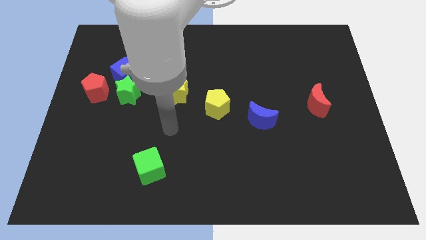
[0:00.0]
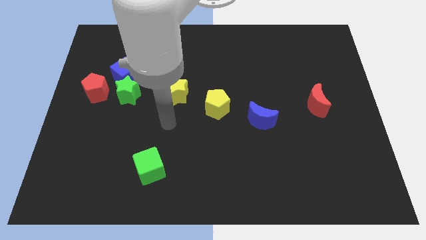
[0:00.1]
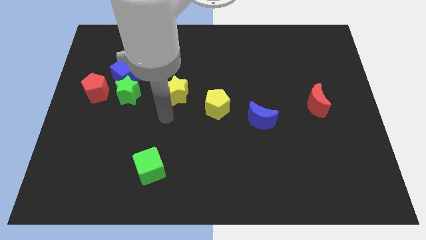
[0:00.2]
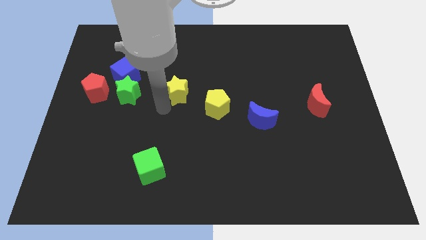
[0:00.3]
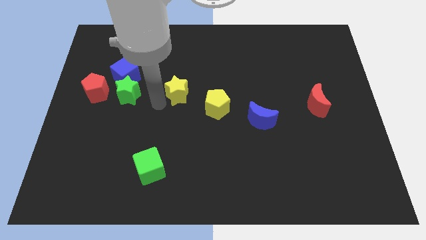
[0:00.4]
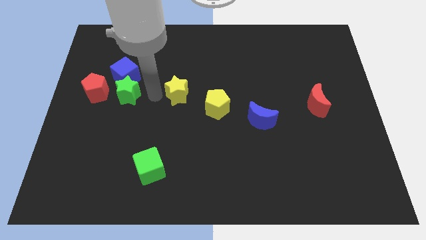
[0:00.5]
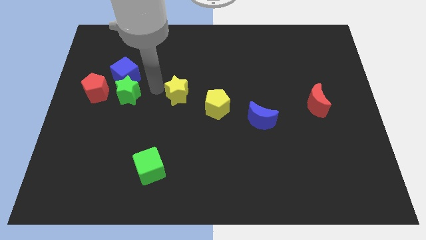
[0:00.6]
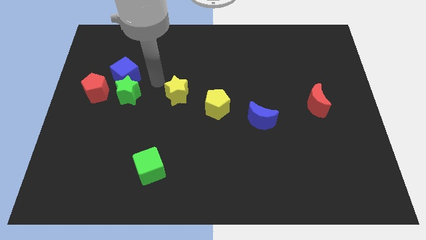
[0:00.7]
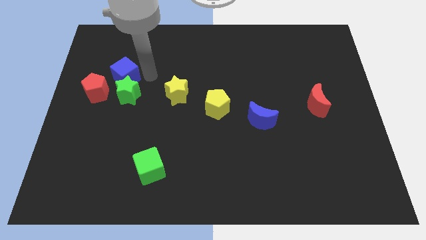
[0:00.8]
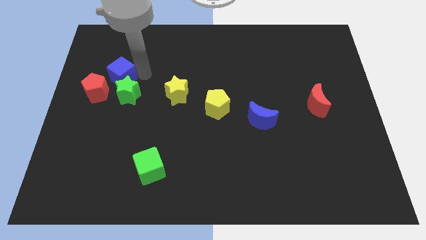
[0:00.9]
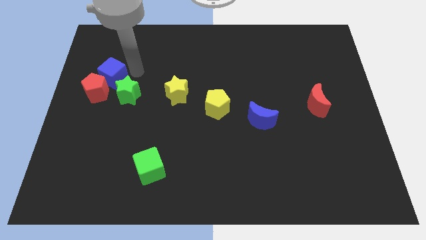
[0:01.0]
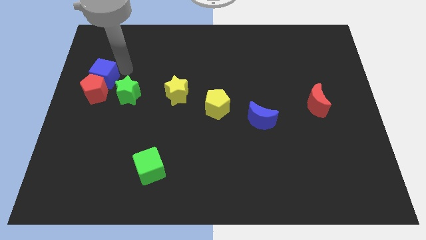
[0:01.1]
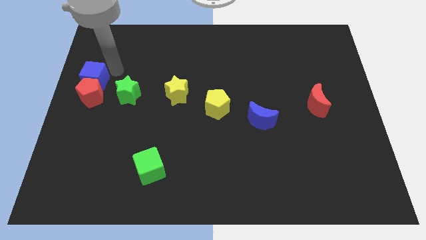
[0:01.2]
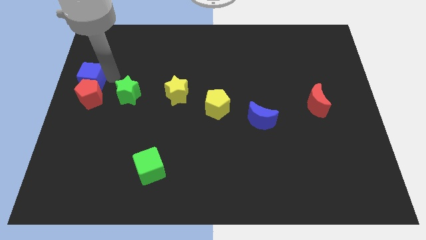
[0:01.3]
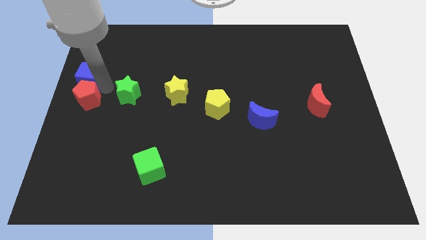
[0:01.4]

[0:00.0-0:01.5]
pull the green star apart from the blue cube and red pentagon

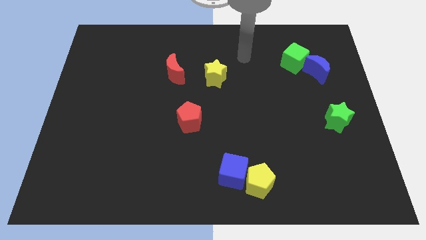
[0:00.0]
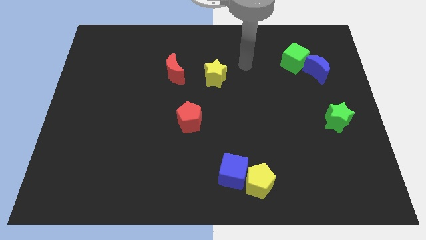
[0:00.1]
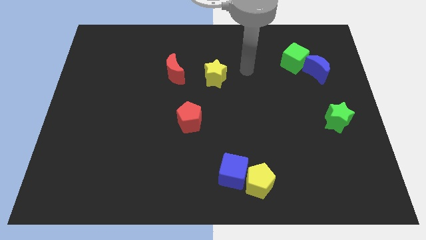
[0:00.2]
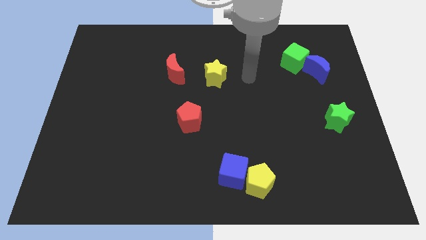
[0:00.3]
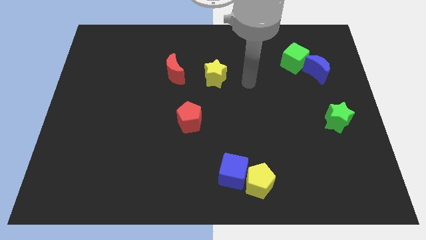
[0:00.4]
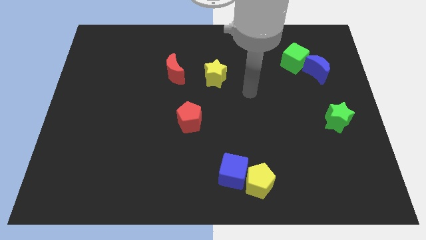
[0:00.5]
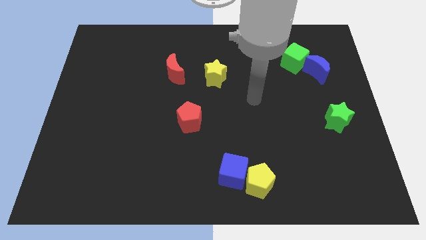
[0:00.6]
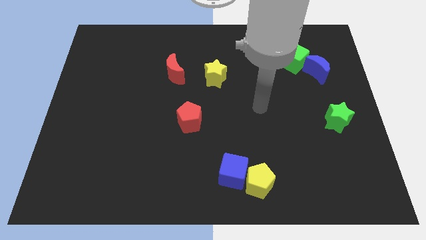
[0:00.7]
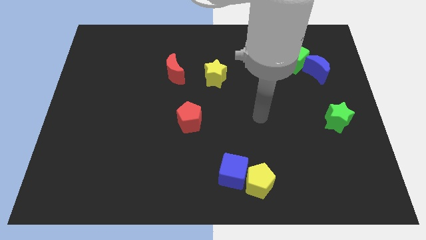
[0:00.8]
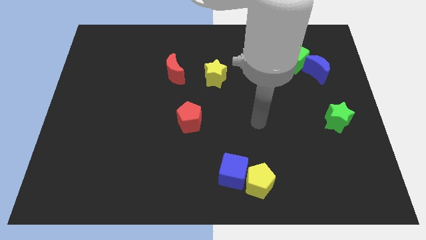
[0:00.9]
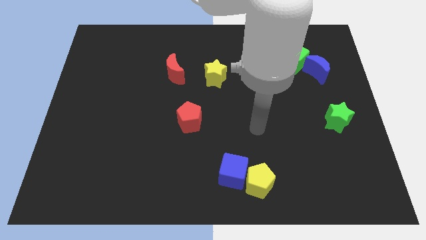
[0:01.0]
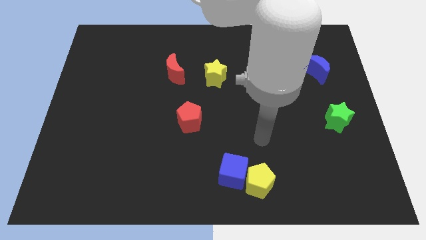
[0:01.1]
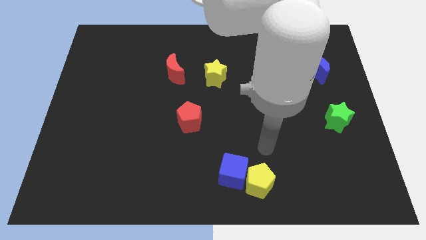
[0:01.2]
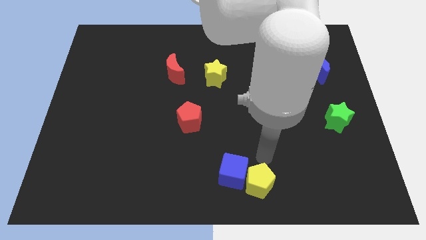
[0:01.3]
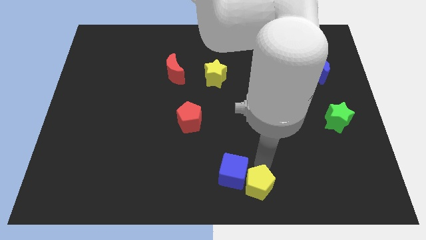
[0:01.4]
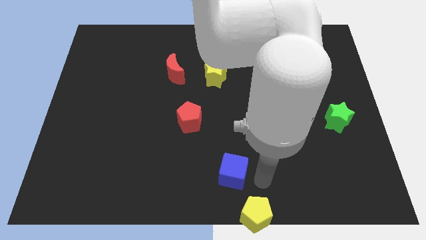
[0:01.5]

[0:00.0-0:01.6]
pull the blue cube apart from the yellow pentagon

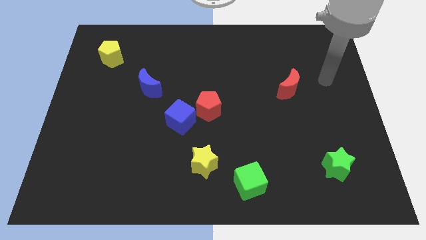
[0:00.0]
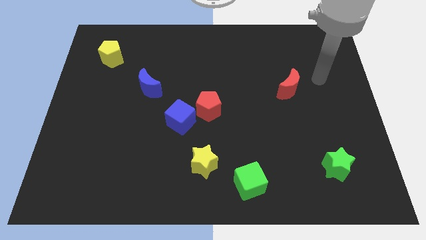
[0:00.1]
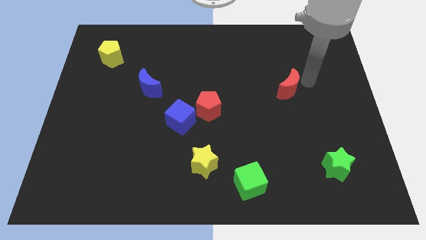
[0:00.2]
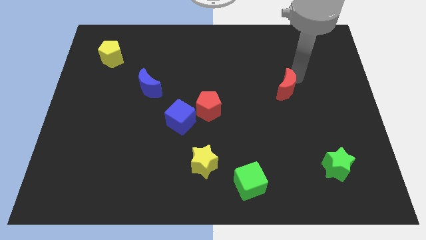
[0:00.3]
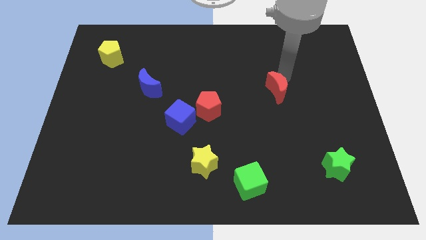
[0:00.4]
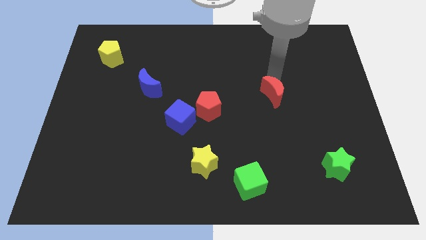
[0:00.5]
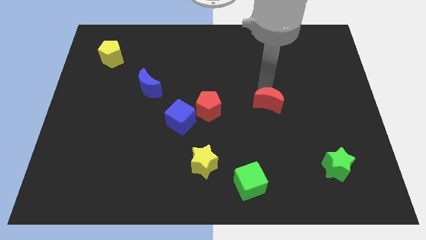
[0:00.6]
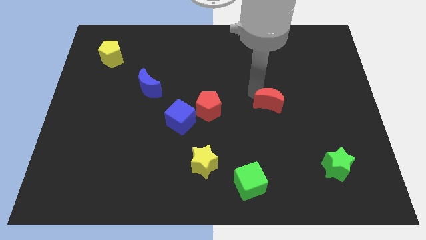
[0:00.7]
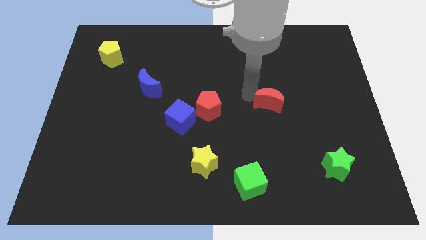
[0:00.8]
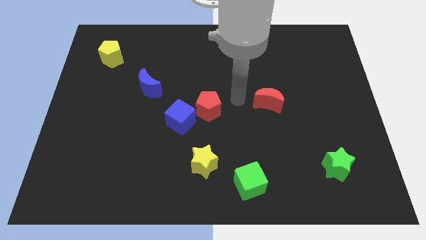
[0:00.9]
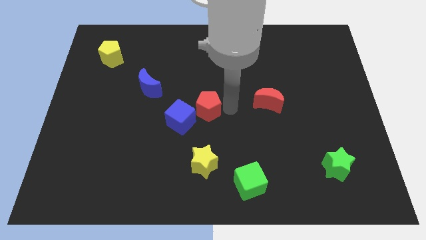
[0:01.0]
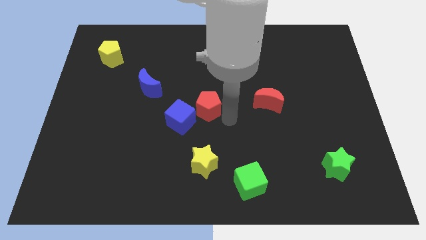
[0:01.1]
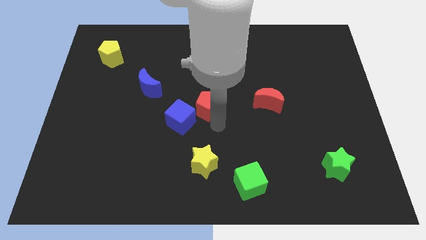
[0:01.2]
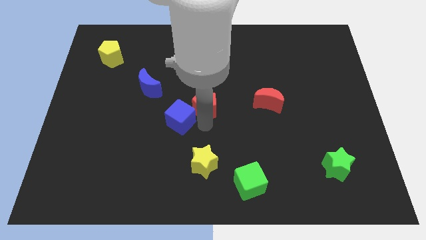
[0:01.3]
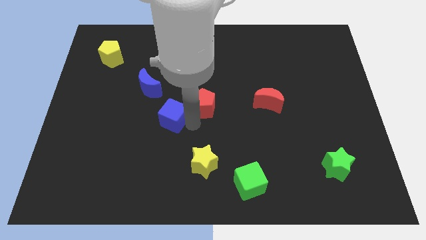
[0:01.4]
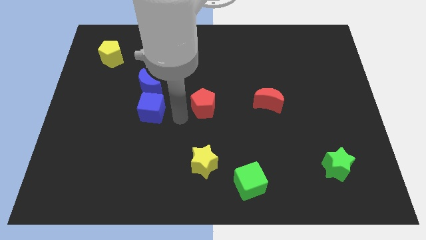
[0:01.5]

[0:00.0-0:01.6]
pull the red pentagon apart from the blue cube

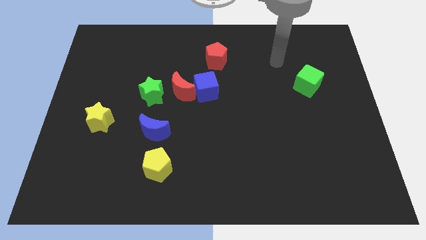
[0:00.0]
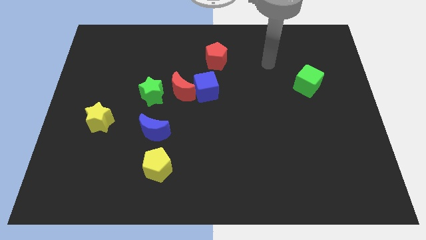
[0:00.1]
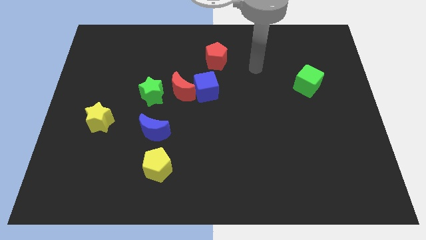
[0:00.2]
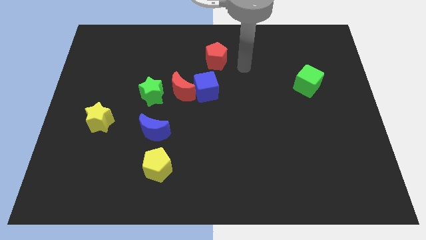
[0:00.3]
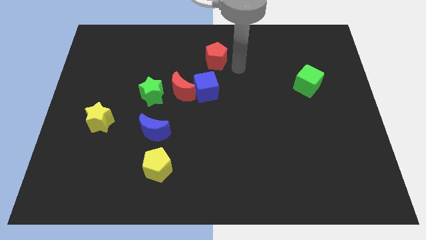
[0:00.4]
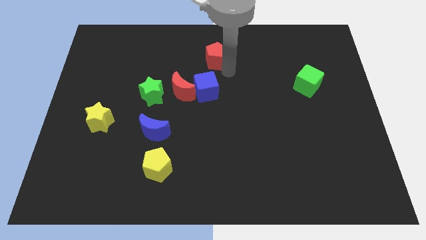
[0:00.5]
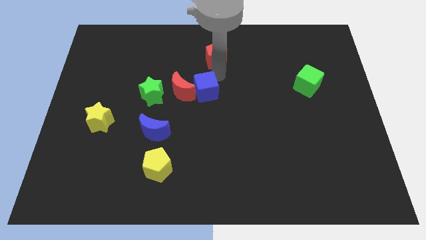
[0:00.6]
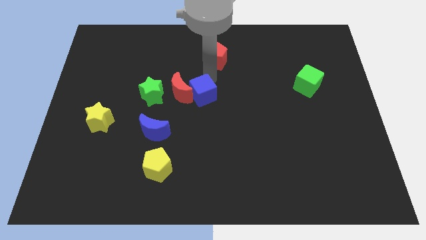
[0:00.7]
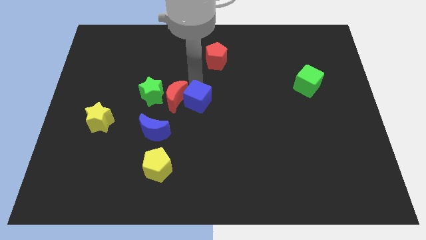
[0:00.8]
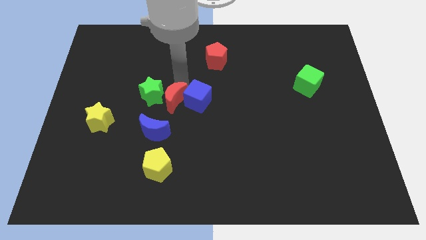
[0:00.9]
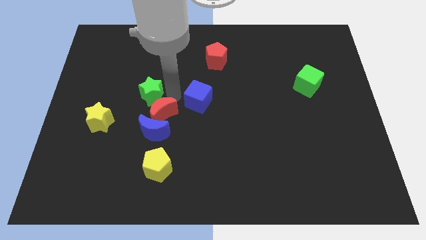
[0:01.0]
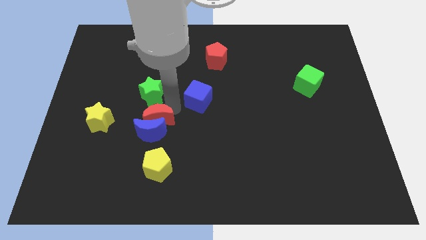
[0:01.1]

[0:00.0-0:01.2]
pull the blue cube apart from the red moon

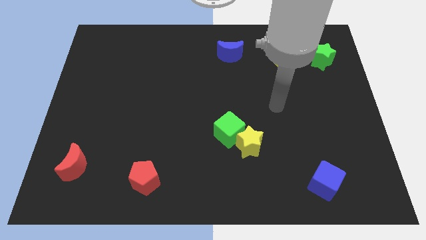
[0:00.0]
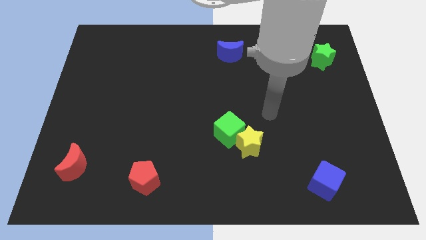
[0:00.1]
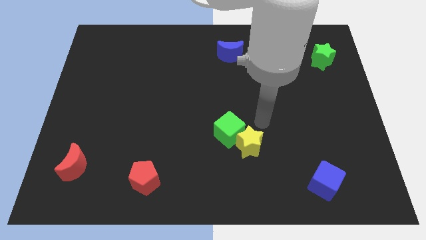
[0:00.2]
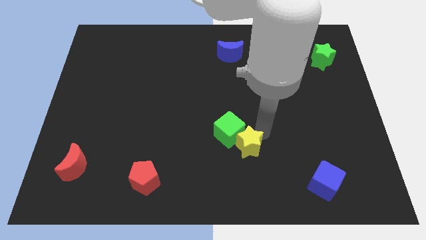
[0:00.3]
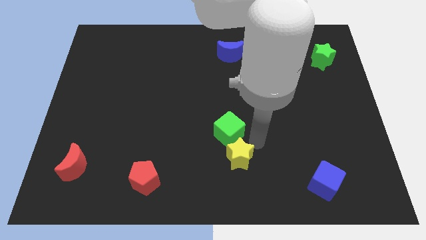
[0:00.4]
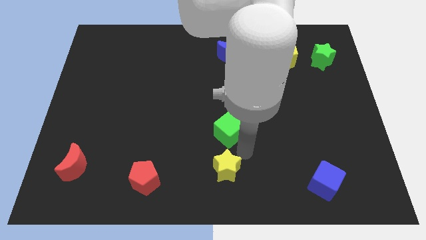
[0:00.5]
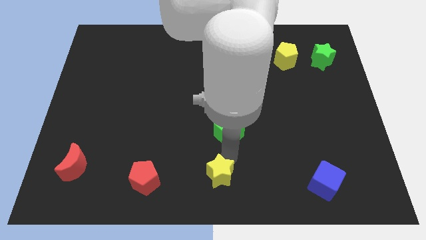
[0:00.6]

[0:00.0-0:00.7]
pull the green cube apart from the yellow star

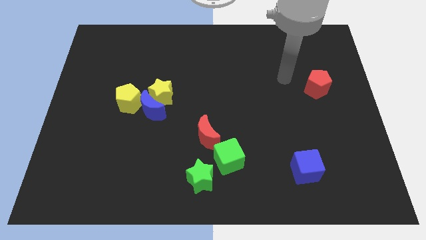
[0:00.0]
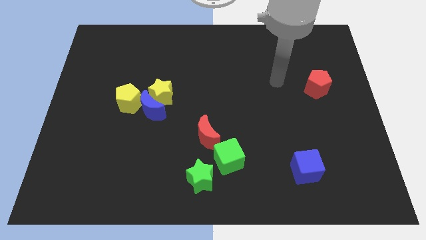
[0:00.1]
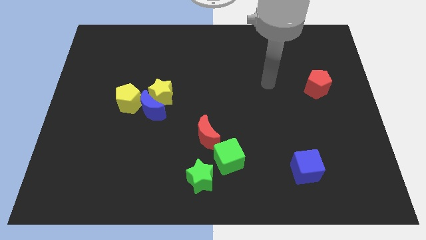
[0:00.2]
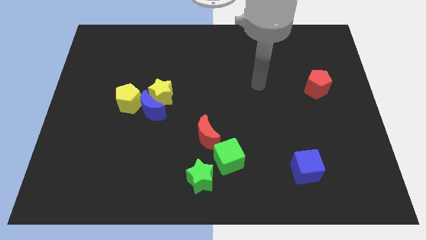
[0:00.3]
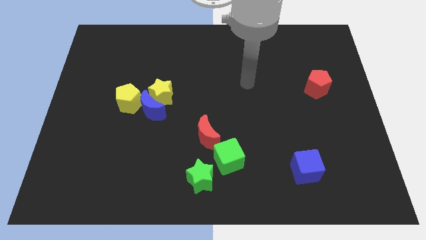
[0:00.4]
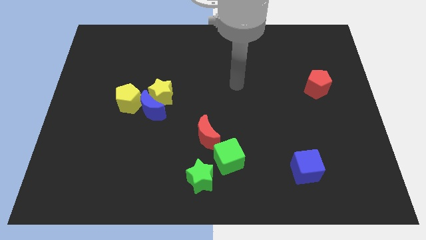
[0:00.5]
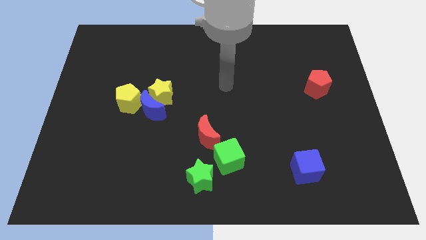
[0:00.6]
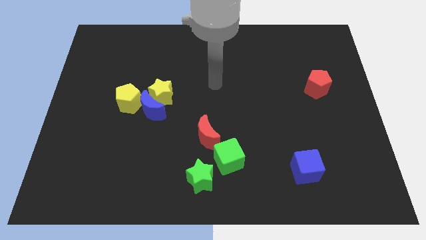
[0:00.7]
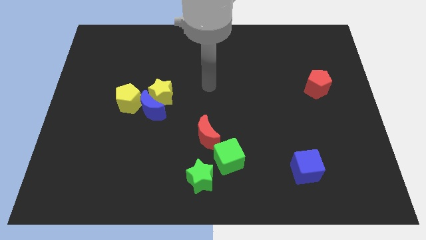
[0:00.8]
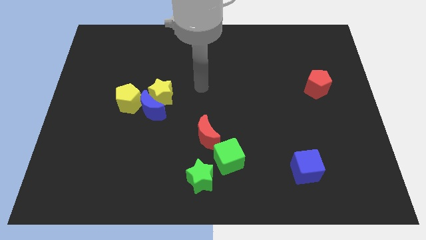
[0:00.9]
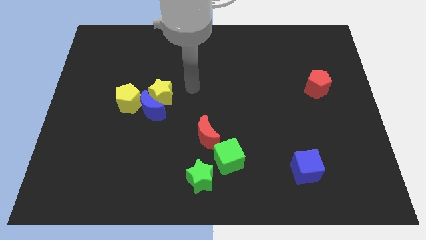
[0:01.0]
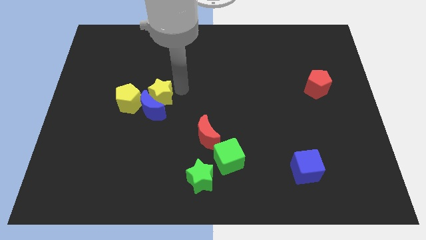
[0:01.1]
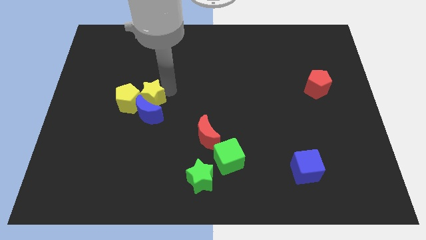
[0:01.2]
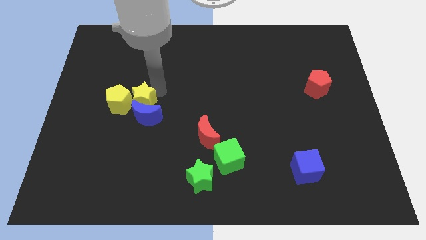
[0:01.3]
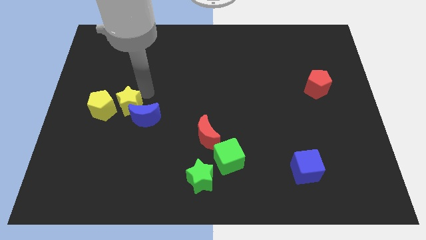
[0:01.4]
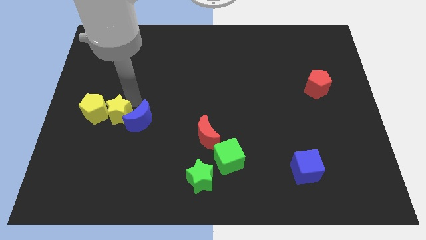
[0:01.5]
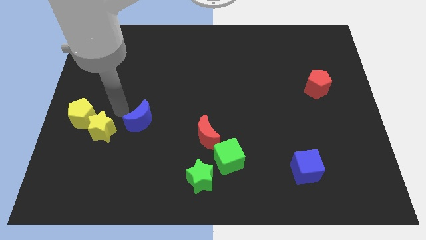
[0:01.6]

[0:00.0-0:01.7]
move the blue moon away from the yellow star and yellow pentagon

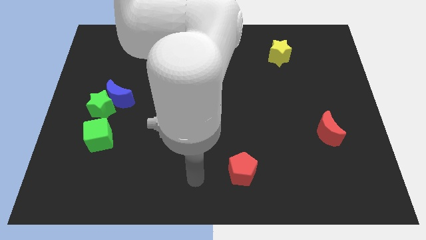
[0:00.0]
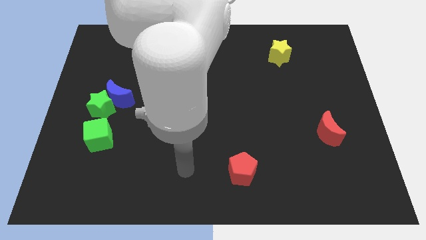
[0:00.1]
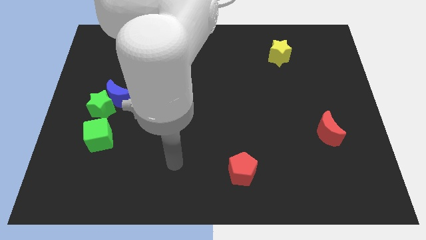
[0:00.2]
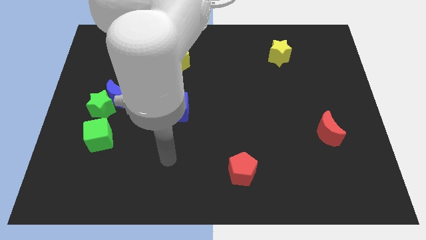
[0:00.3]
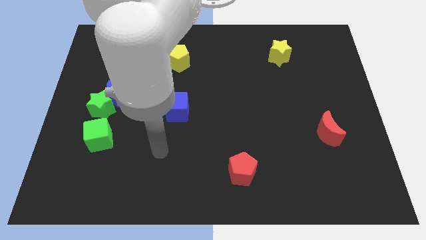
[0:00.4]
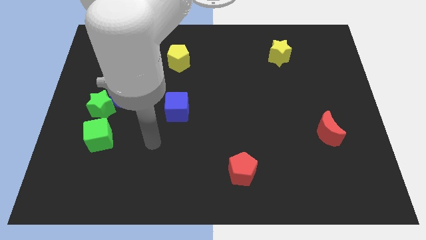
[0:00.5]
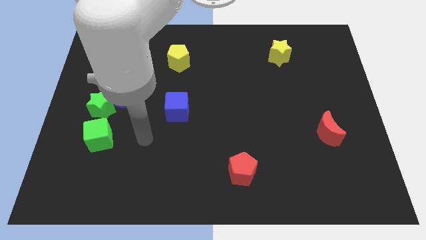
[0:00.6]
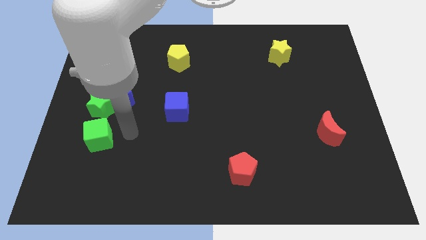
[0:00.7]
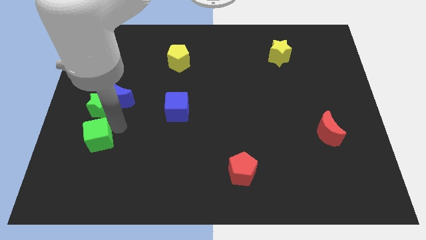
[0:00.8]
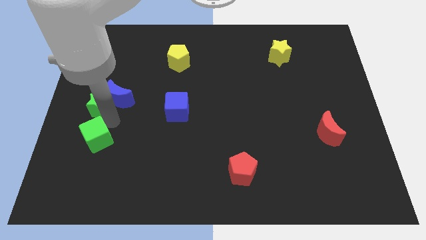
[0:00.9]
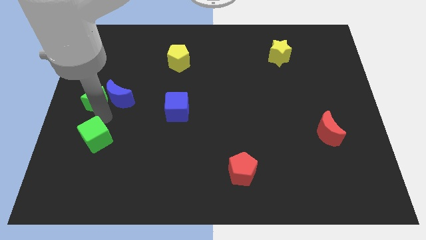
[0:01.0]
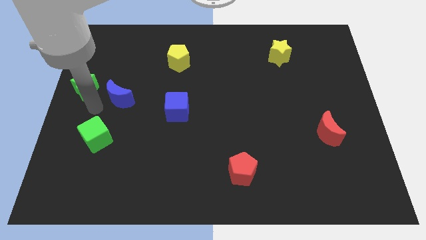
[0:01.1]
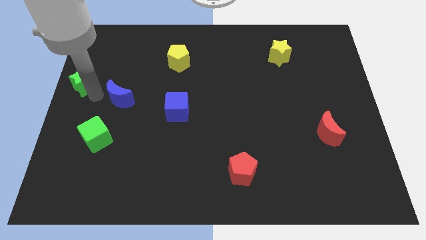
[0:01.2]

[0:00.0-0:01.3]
separate the blue moon from the green star
